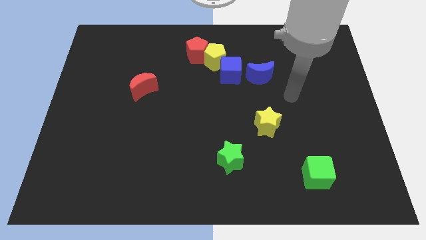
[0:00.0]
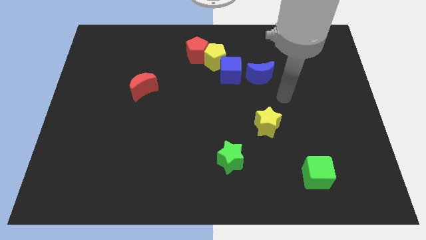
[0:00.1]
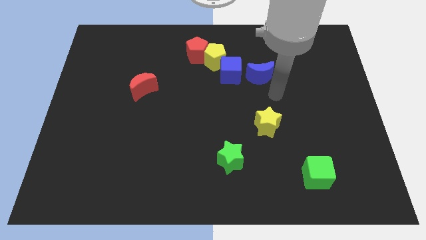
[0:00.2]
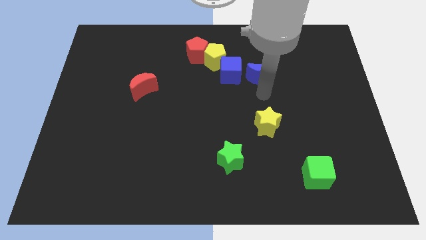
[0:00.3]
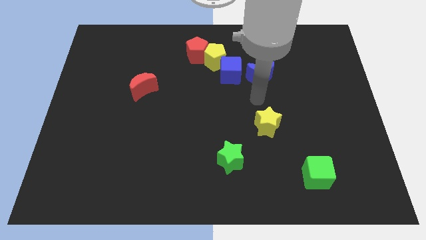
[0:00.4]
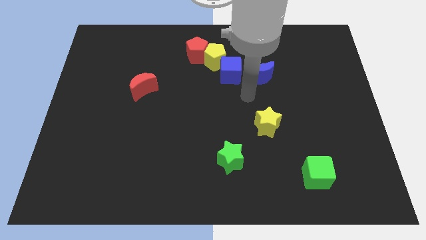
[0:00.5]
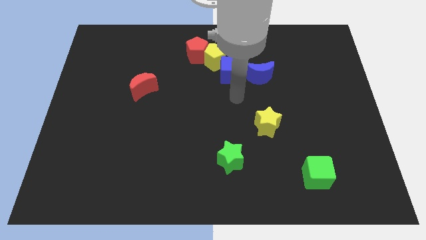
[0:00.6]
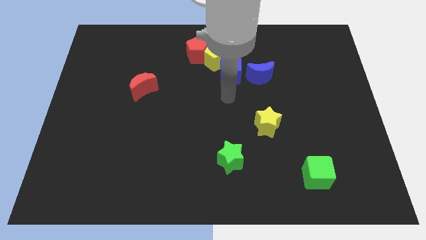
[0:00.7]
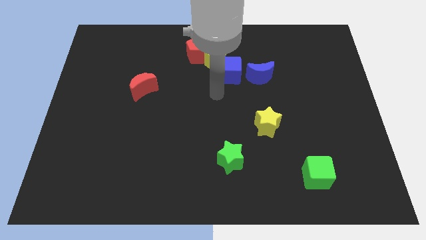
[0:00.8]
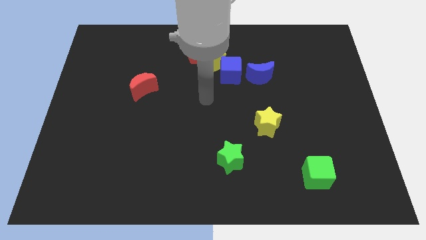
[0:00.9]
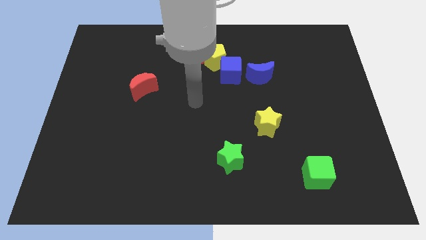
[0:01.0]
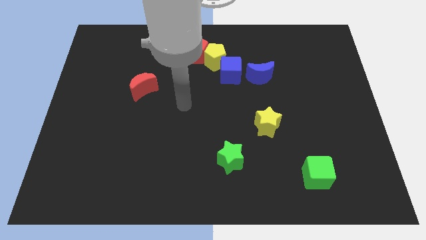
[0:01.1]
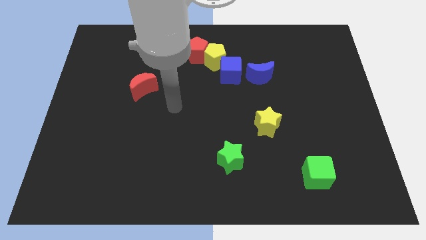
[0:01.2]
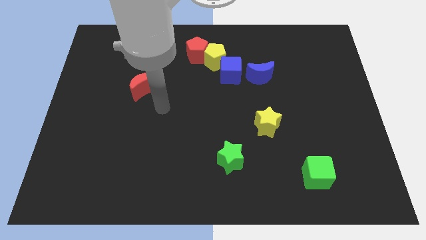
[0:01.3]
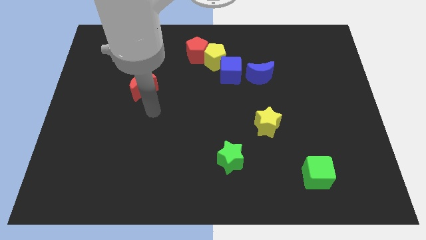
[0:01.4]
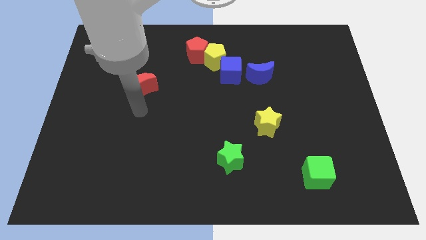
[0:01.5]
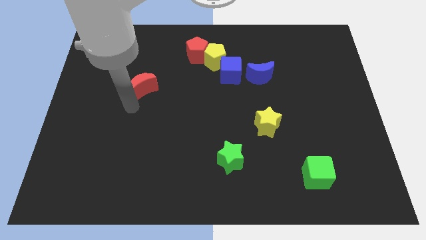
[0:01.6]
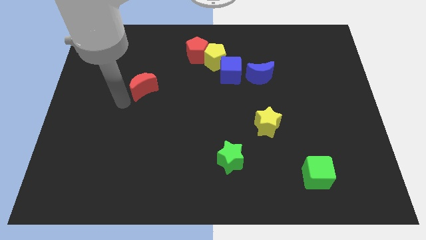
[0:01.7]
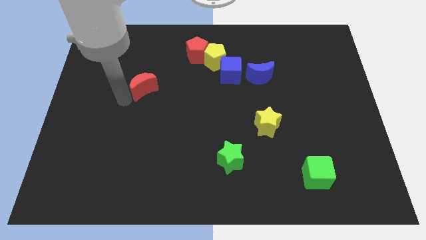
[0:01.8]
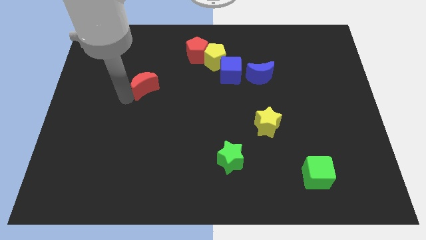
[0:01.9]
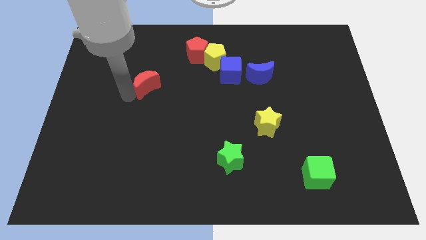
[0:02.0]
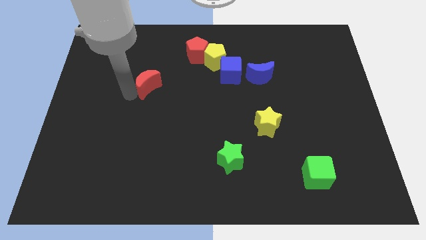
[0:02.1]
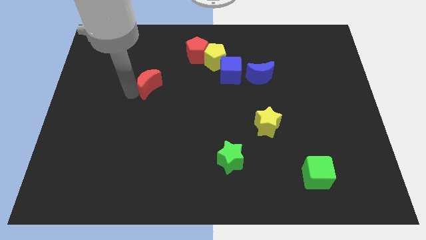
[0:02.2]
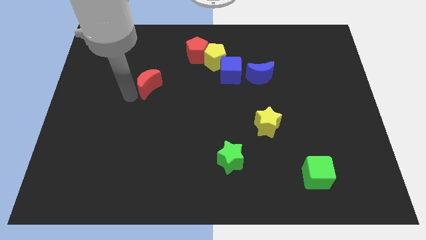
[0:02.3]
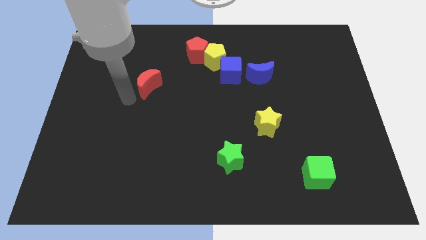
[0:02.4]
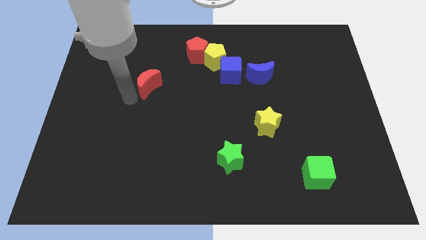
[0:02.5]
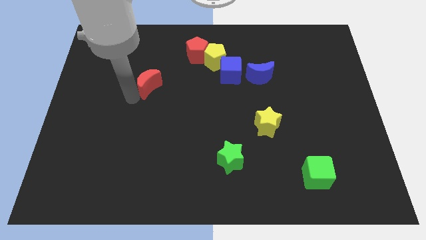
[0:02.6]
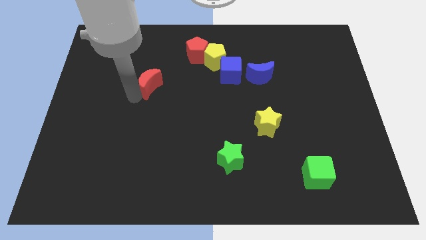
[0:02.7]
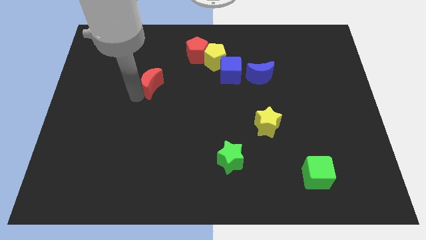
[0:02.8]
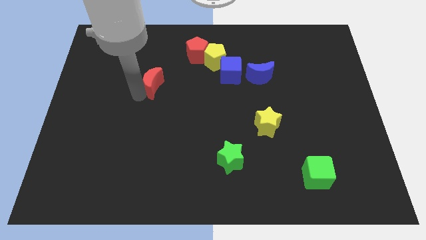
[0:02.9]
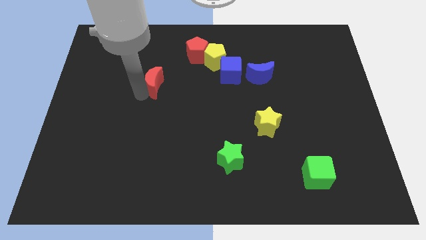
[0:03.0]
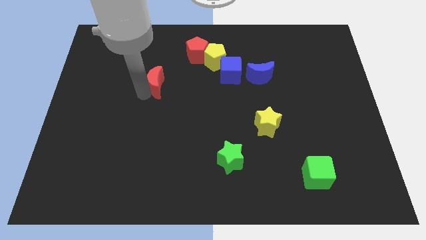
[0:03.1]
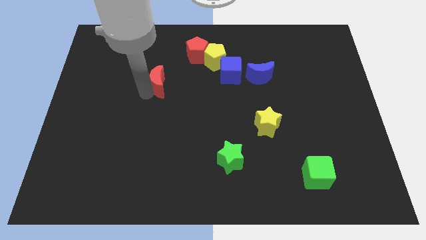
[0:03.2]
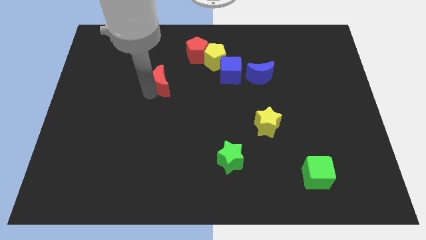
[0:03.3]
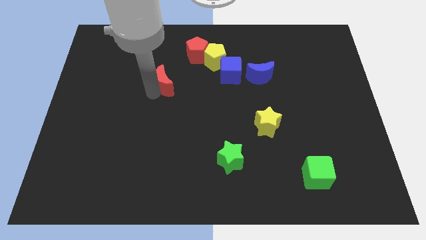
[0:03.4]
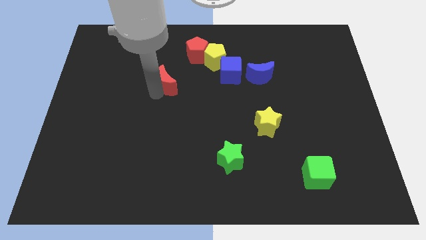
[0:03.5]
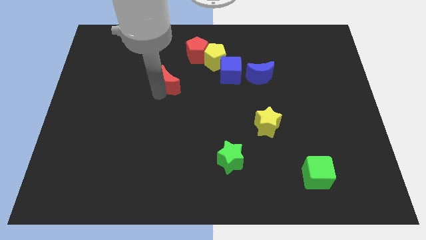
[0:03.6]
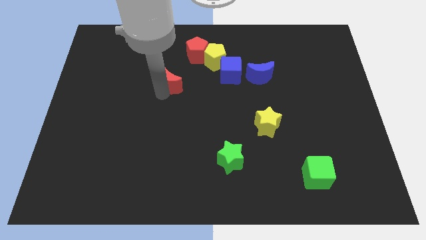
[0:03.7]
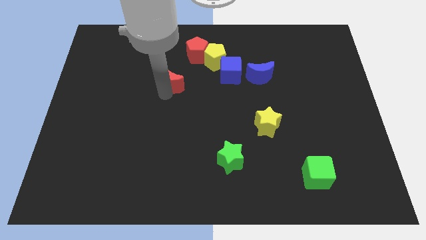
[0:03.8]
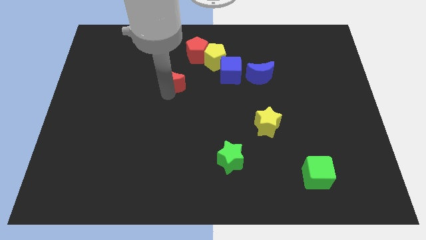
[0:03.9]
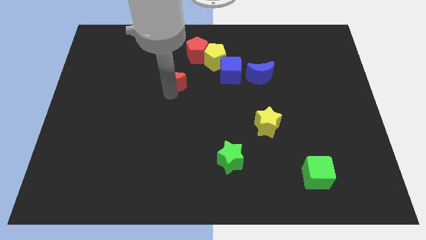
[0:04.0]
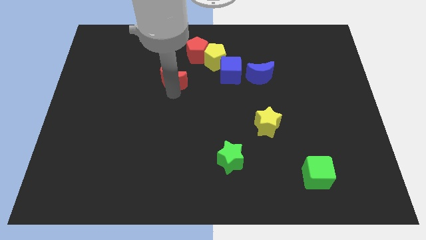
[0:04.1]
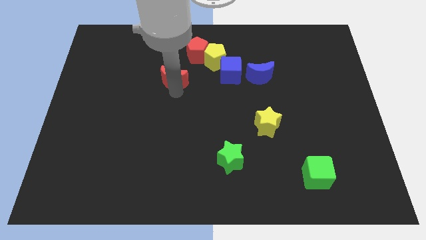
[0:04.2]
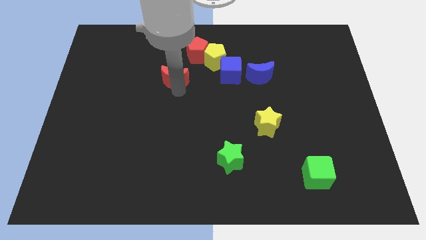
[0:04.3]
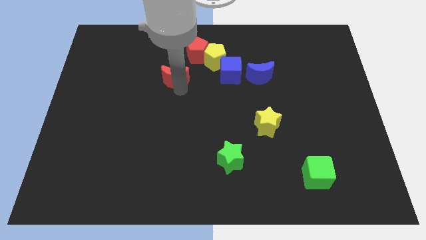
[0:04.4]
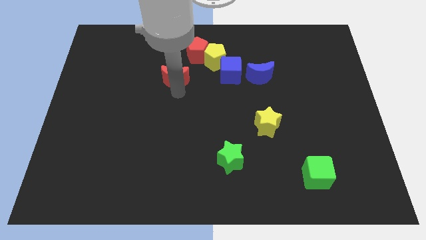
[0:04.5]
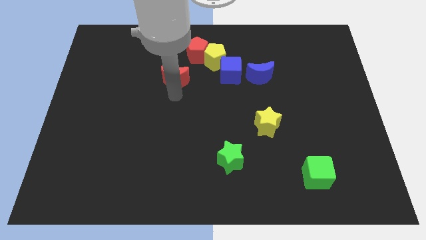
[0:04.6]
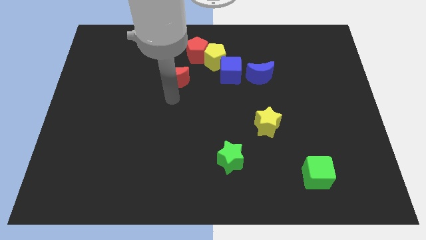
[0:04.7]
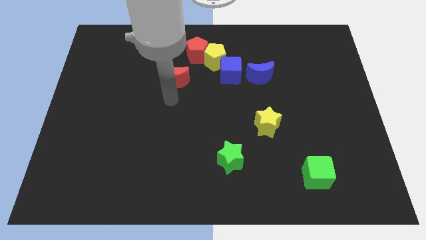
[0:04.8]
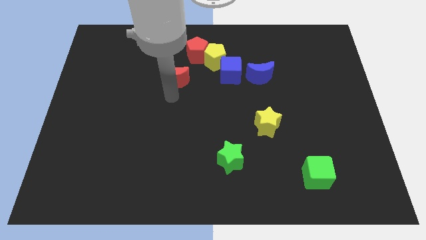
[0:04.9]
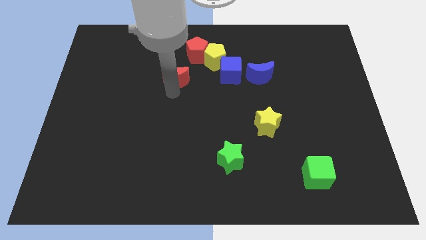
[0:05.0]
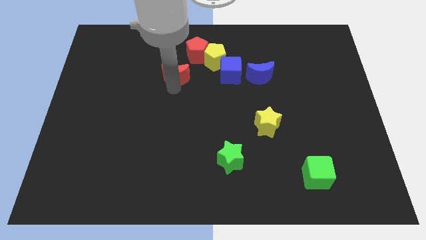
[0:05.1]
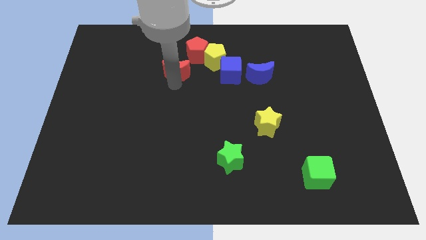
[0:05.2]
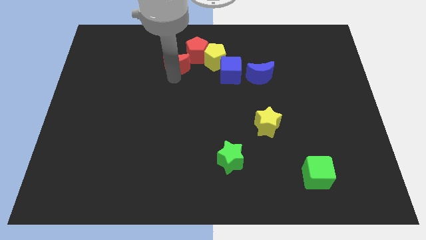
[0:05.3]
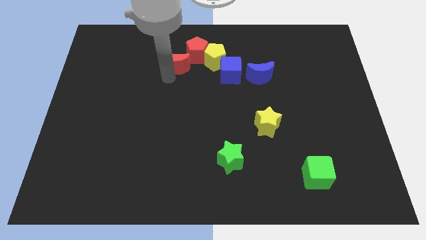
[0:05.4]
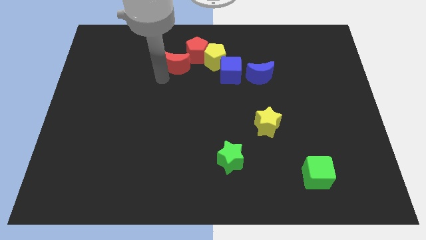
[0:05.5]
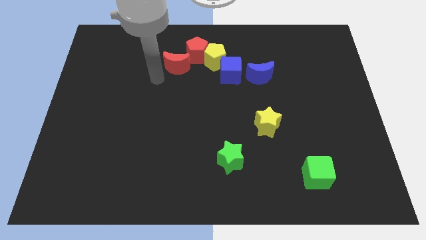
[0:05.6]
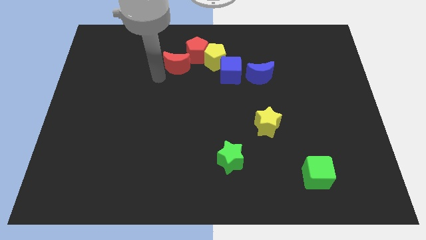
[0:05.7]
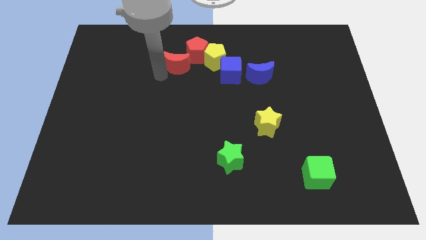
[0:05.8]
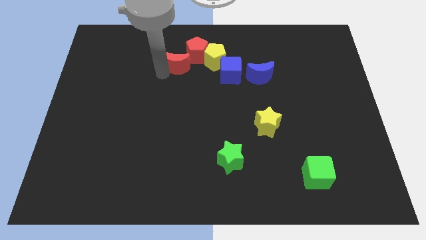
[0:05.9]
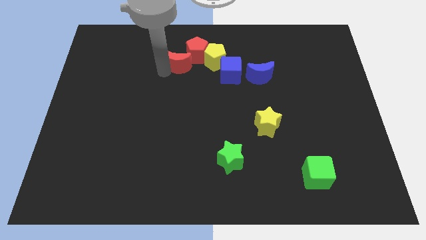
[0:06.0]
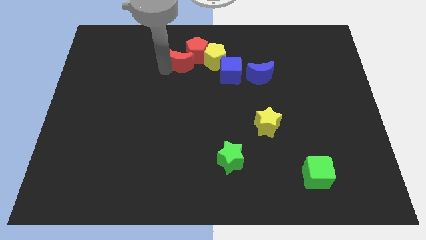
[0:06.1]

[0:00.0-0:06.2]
push the red moon close to the red pentagon

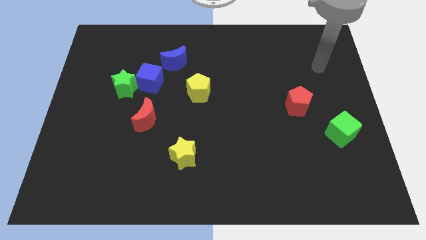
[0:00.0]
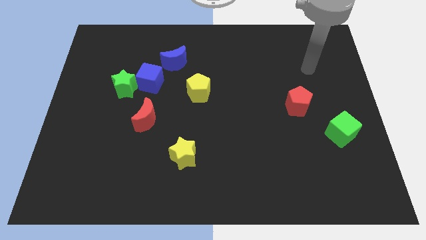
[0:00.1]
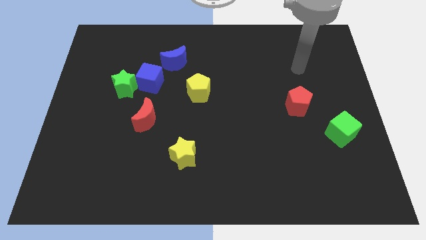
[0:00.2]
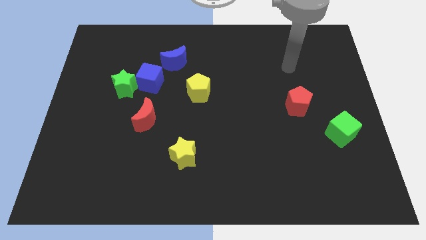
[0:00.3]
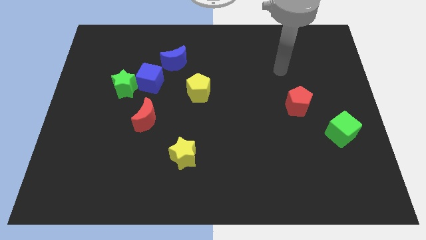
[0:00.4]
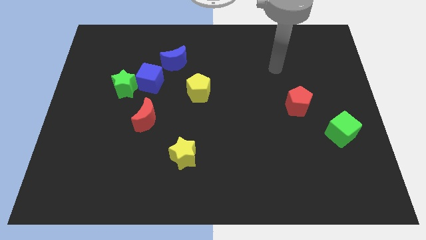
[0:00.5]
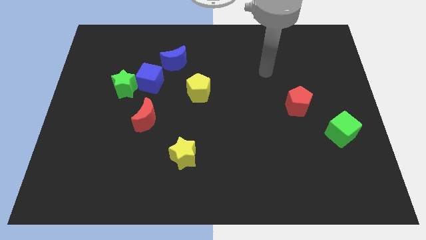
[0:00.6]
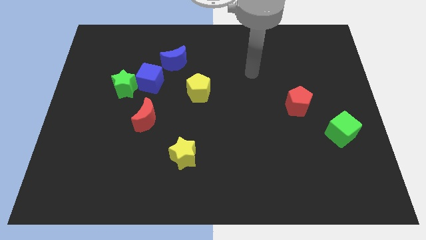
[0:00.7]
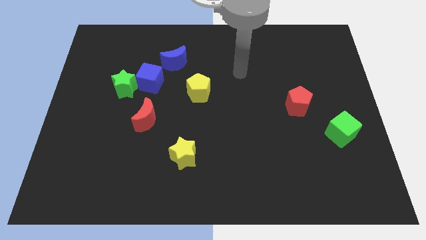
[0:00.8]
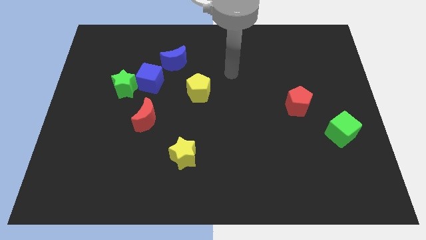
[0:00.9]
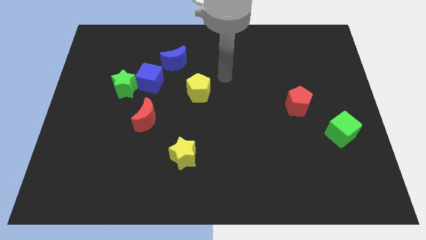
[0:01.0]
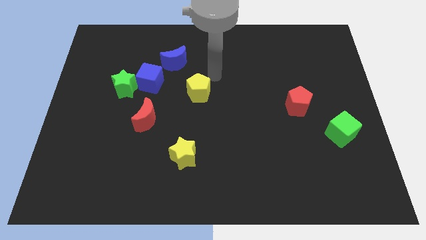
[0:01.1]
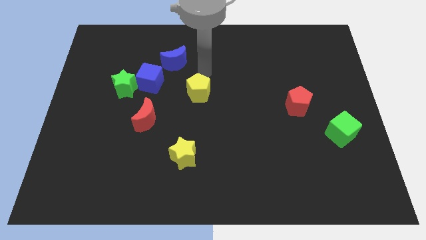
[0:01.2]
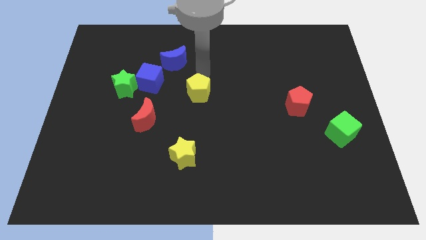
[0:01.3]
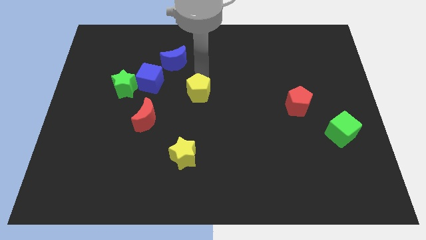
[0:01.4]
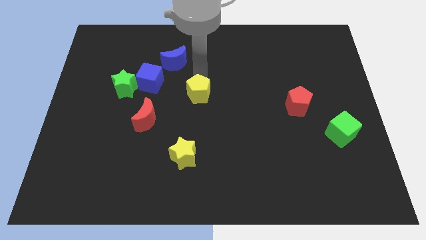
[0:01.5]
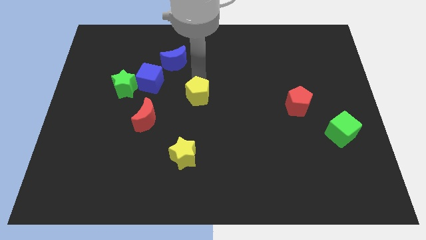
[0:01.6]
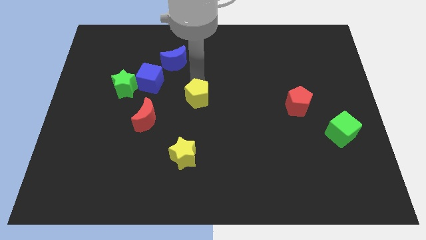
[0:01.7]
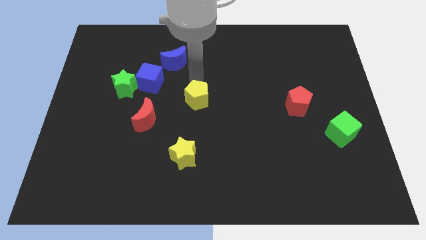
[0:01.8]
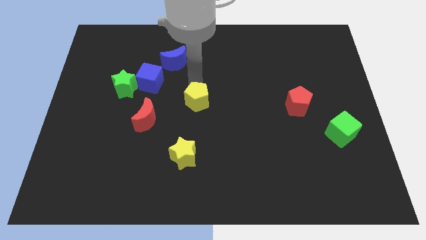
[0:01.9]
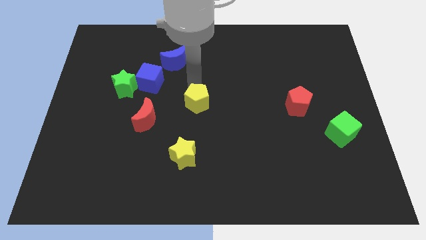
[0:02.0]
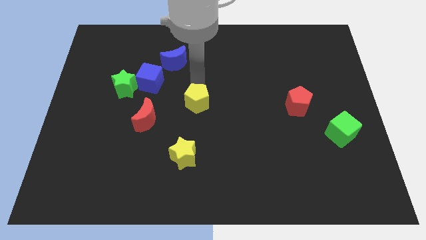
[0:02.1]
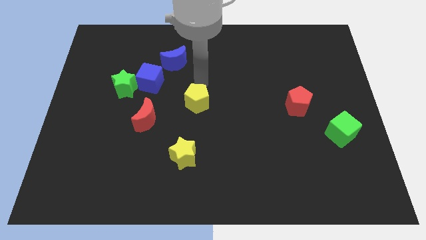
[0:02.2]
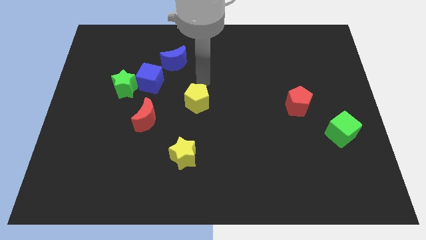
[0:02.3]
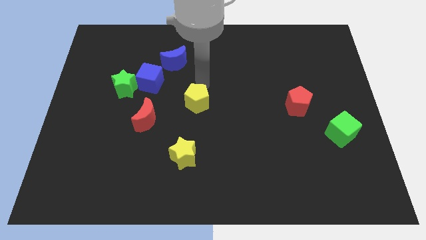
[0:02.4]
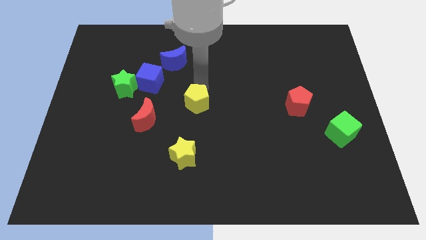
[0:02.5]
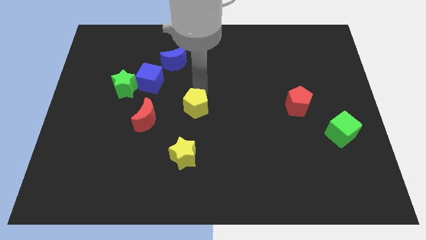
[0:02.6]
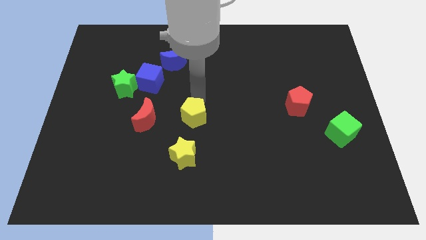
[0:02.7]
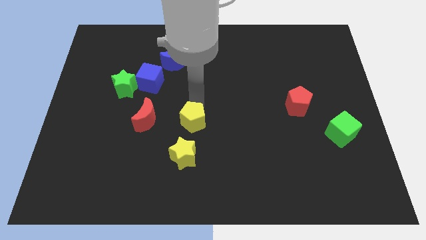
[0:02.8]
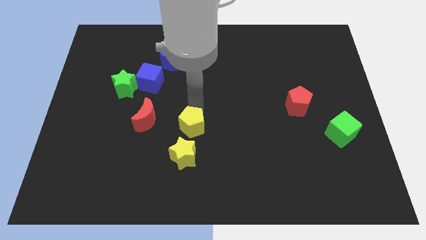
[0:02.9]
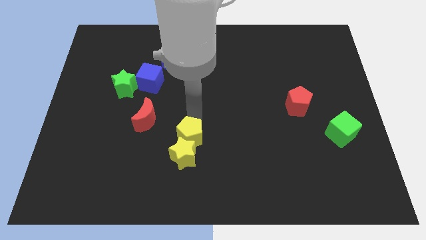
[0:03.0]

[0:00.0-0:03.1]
move the yellow pentagon towards the yellow star
